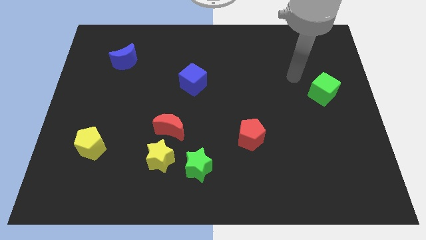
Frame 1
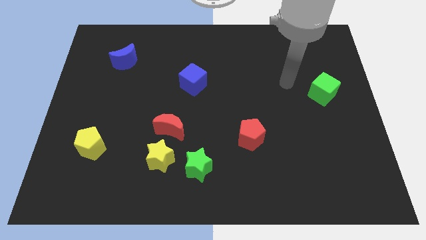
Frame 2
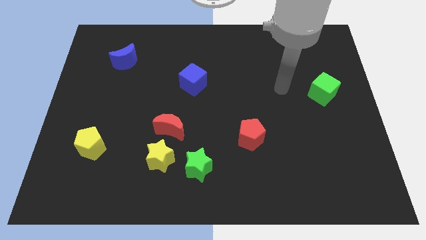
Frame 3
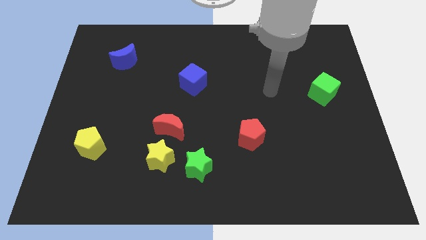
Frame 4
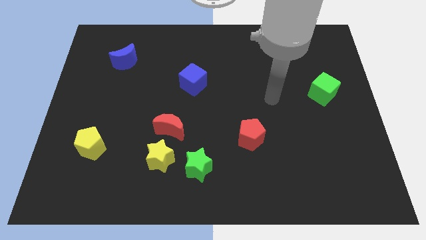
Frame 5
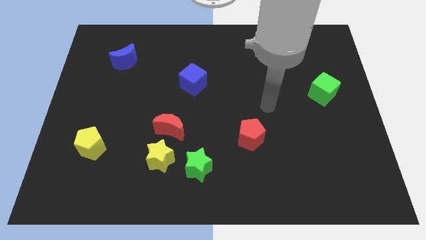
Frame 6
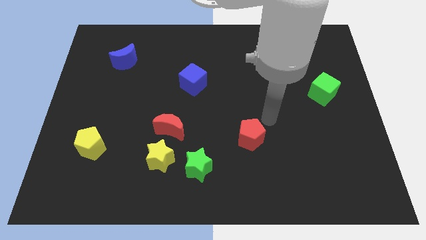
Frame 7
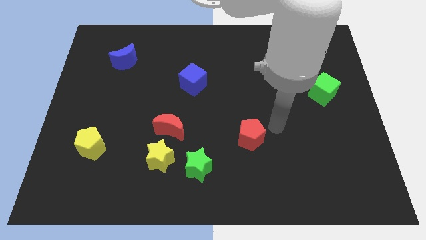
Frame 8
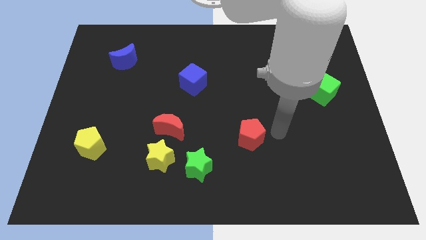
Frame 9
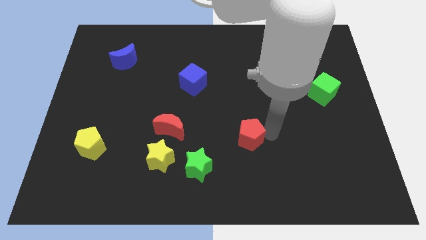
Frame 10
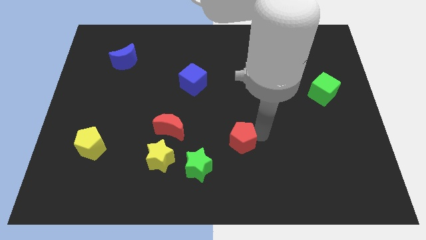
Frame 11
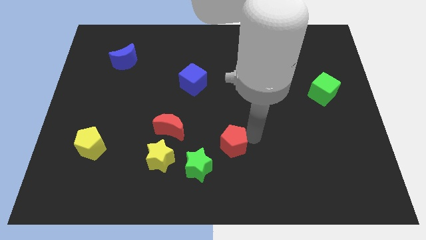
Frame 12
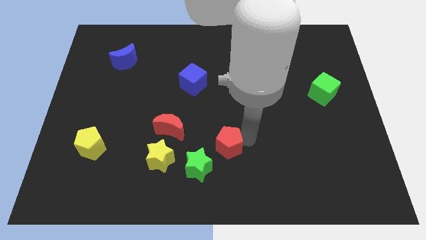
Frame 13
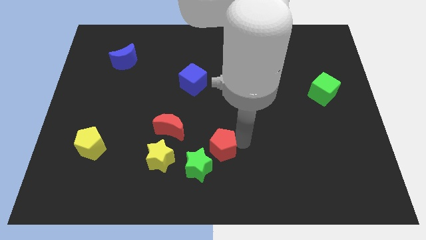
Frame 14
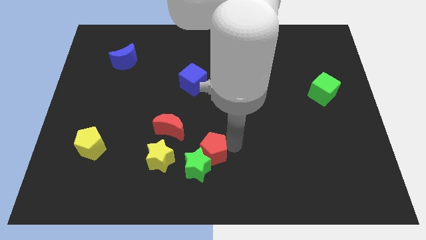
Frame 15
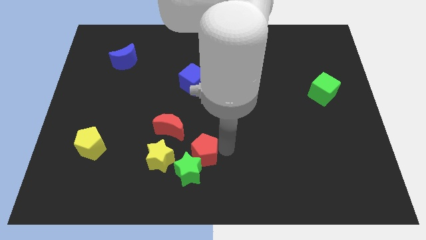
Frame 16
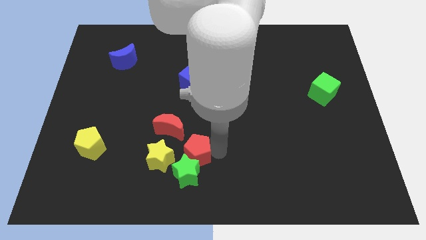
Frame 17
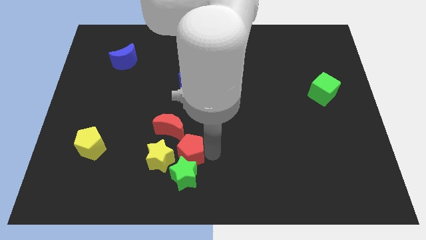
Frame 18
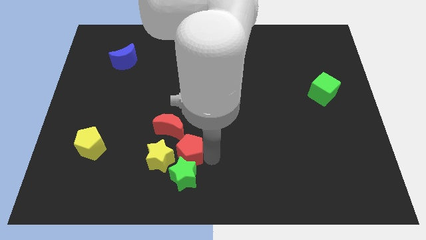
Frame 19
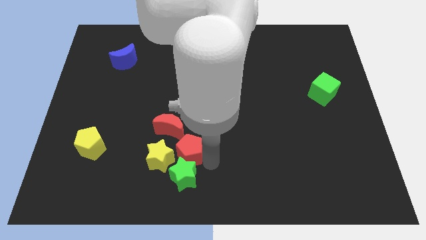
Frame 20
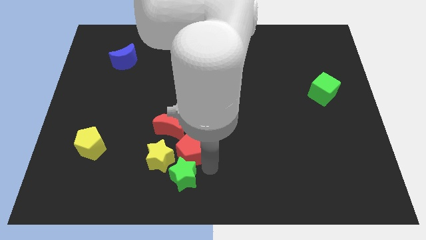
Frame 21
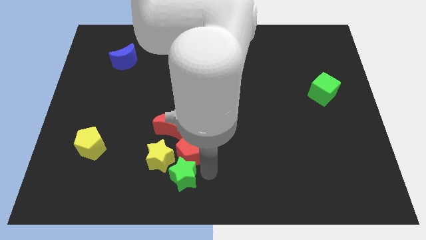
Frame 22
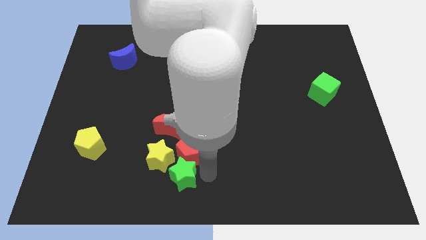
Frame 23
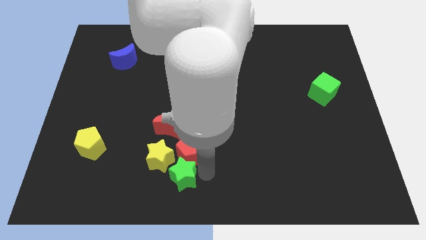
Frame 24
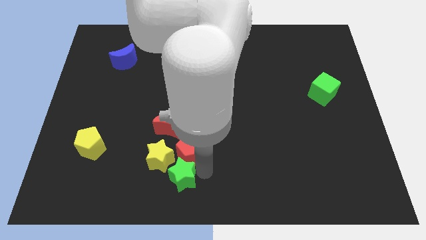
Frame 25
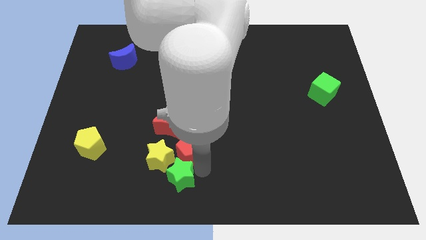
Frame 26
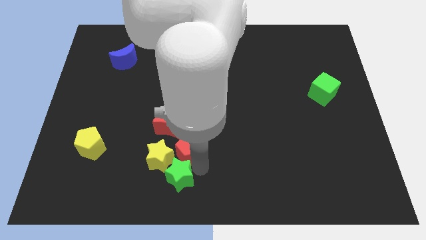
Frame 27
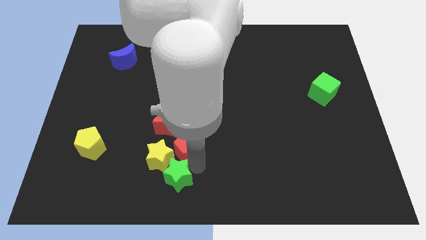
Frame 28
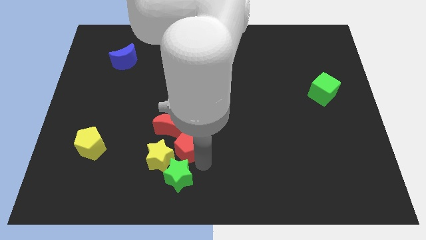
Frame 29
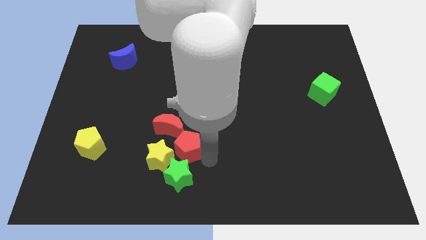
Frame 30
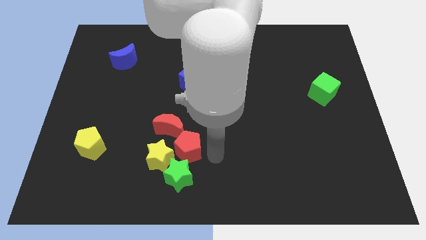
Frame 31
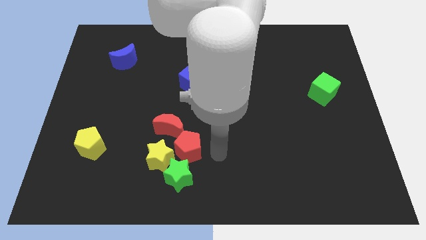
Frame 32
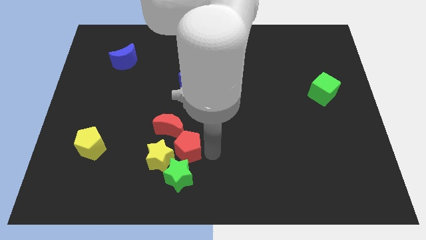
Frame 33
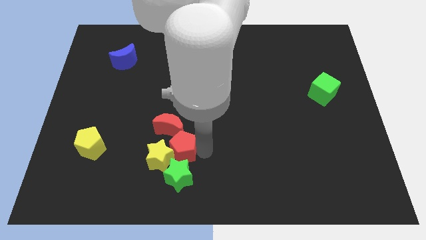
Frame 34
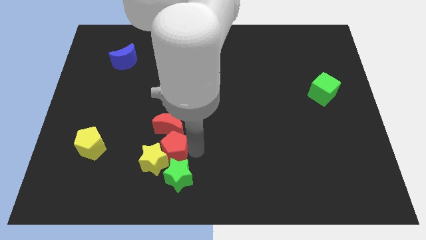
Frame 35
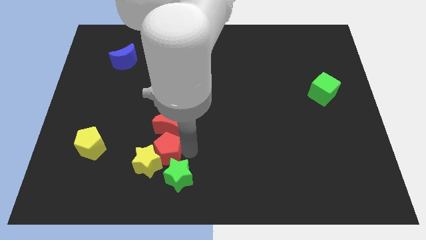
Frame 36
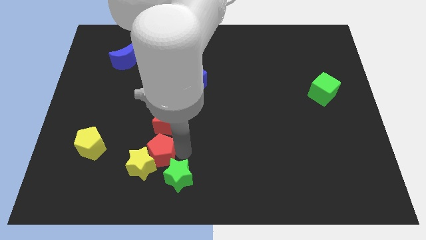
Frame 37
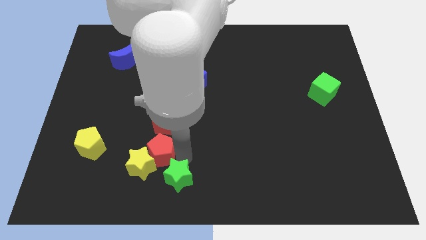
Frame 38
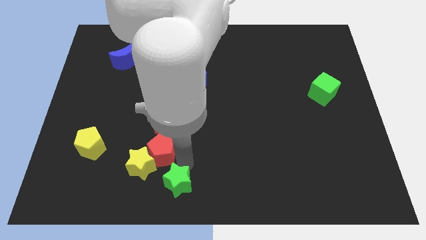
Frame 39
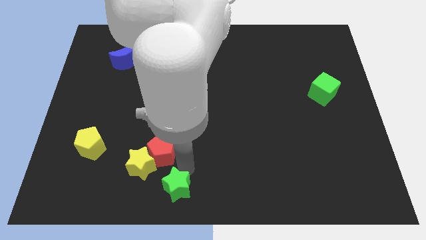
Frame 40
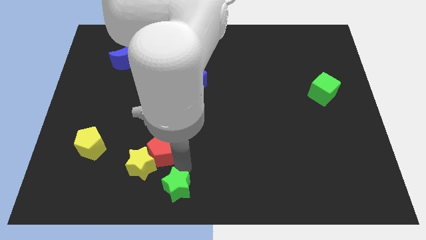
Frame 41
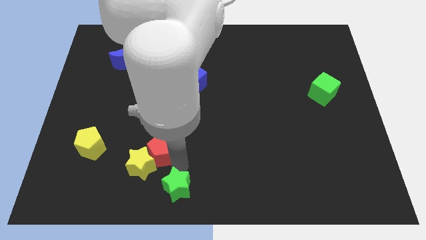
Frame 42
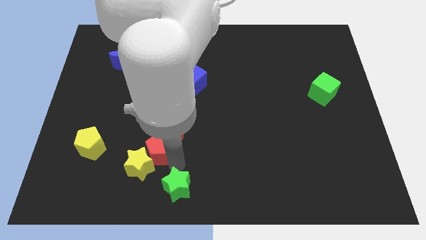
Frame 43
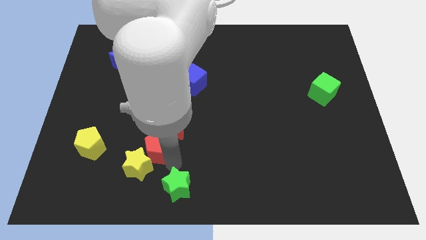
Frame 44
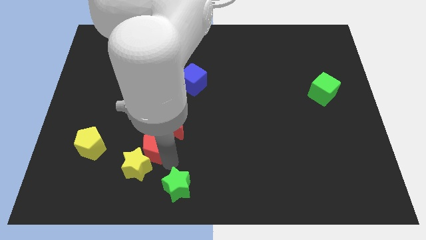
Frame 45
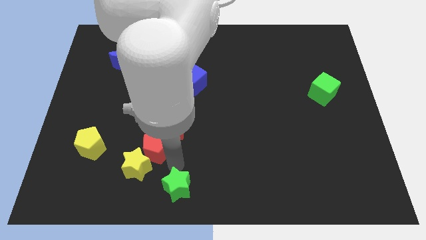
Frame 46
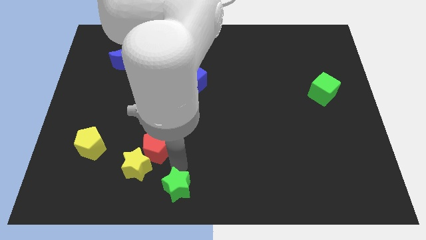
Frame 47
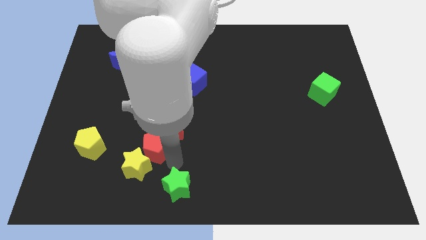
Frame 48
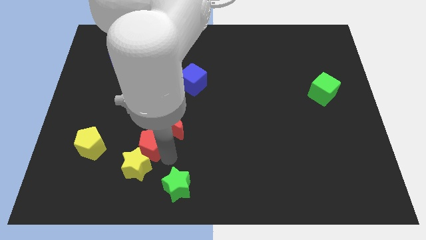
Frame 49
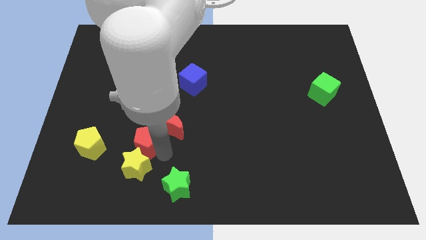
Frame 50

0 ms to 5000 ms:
move the red pentagon to the left of the red moon

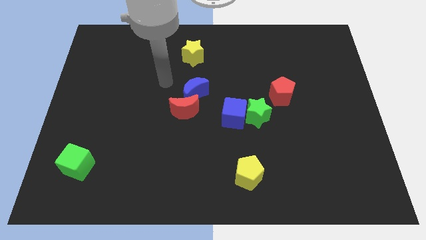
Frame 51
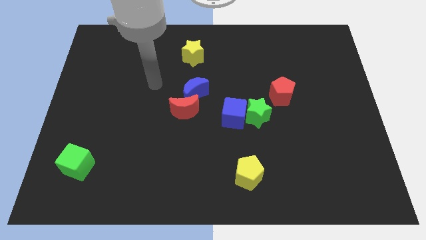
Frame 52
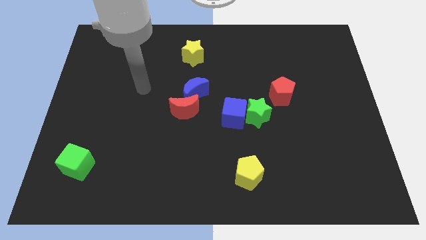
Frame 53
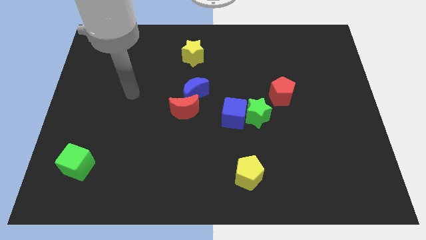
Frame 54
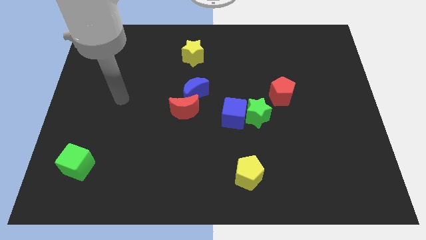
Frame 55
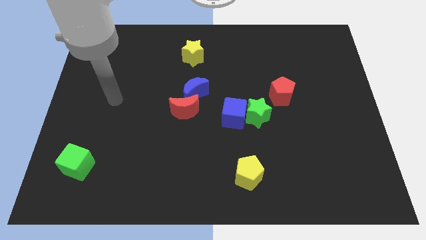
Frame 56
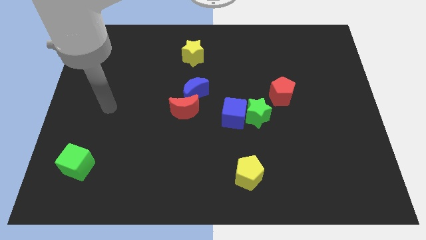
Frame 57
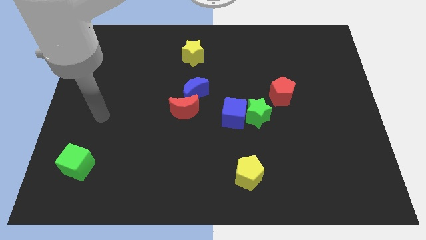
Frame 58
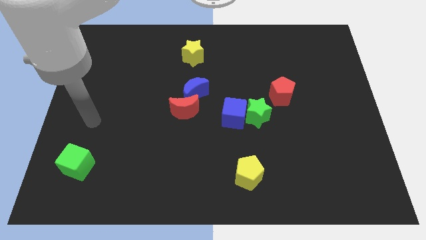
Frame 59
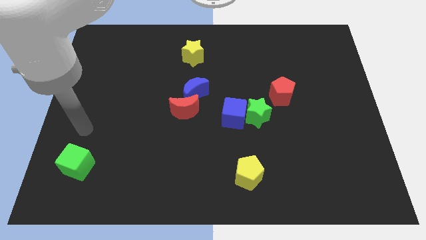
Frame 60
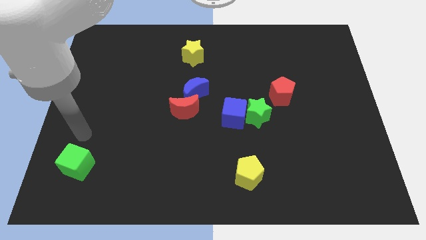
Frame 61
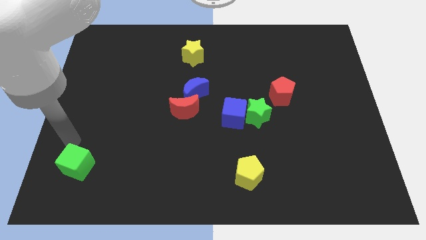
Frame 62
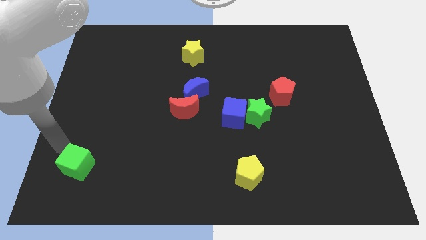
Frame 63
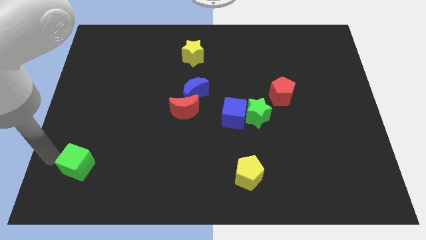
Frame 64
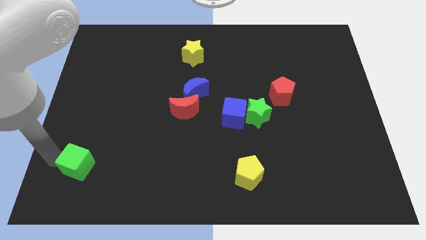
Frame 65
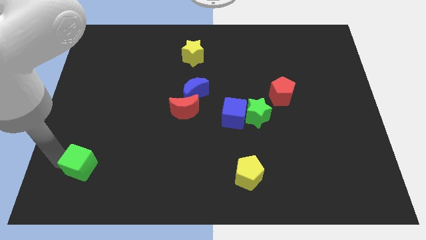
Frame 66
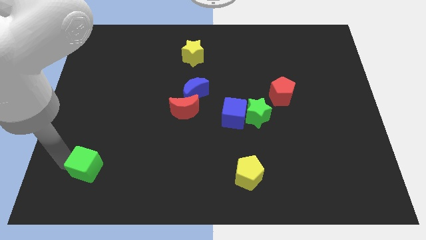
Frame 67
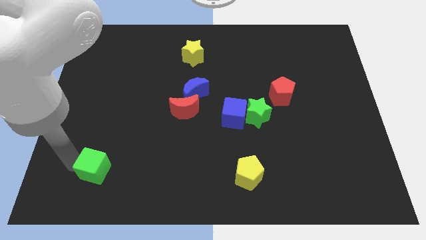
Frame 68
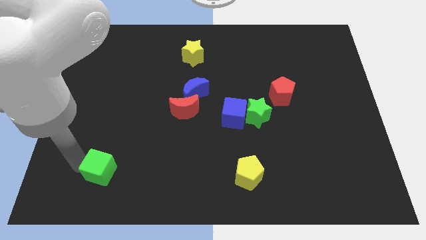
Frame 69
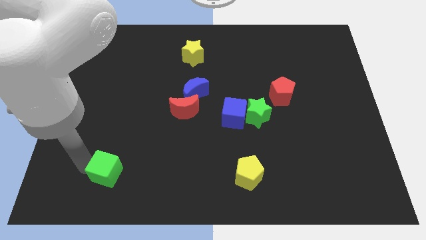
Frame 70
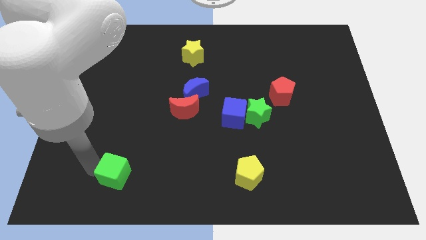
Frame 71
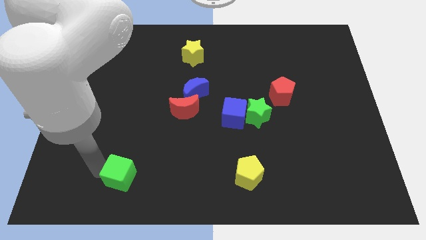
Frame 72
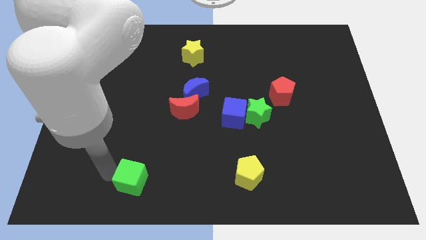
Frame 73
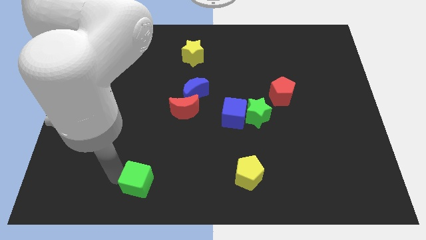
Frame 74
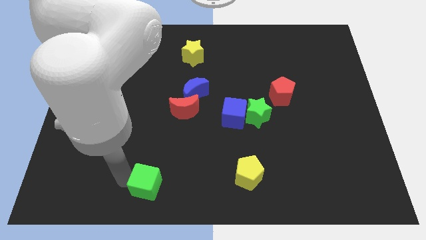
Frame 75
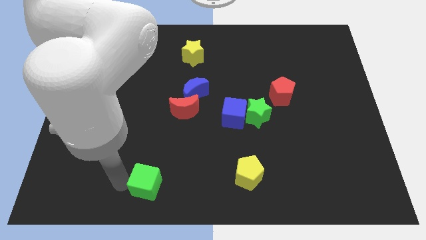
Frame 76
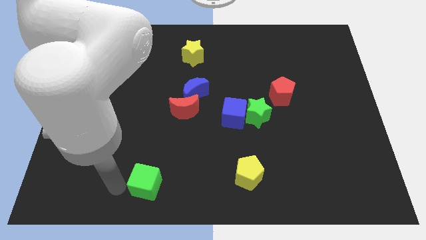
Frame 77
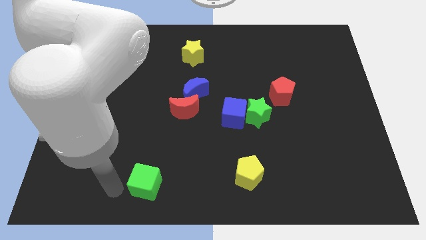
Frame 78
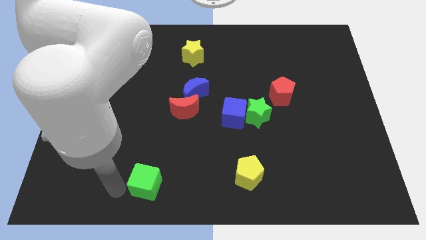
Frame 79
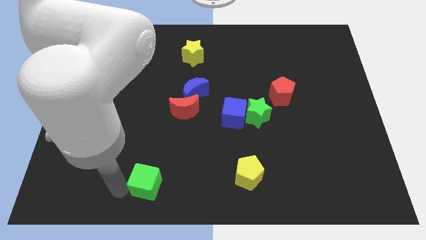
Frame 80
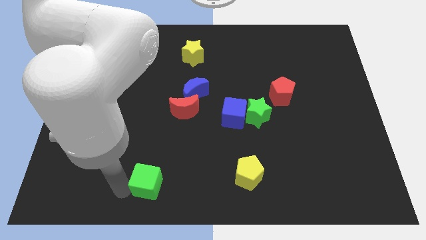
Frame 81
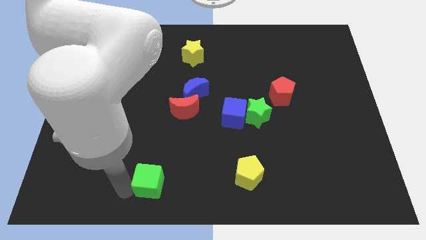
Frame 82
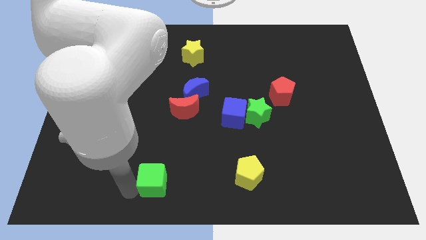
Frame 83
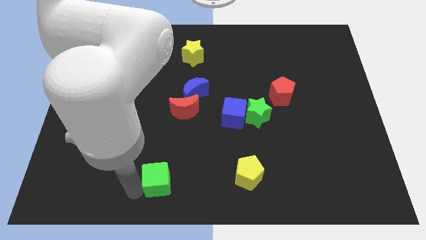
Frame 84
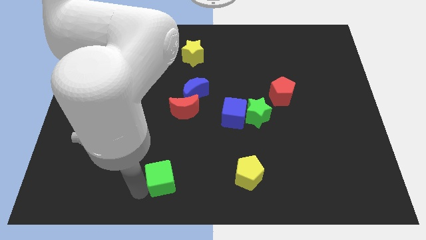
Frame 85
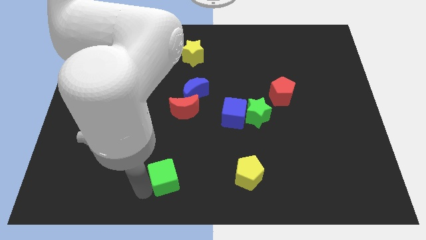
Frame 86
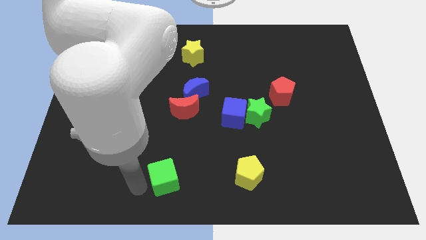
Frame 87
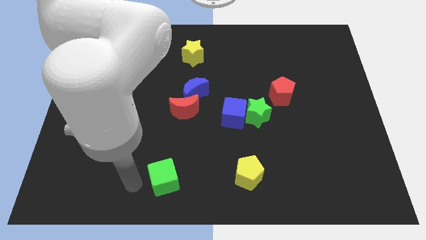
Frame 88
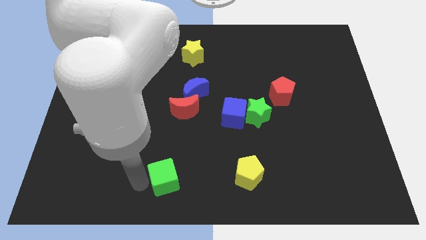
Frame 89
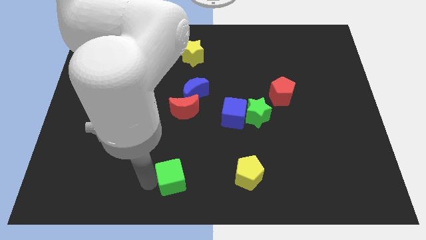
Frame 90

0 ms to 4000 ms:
put the green cube left of the yellow pentagon
